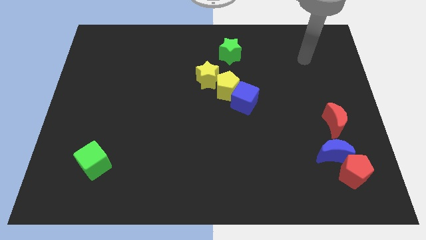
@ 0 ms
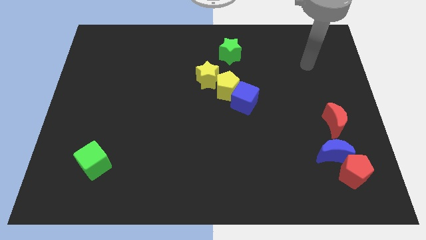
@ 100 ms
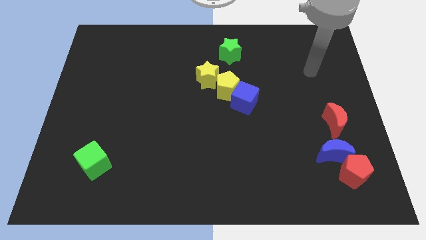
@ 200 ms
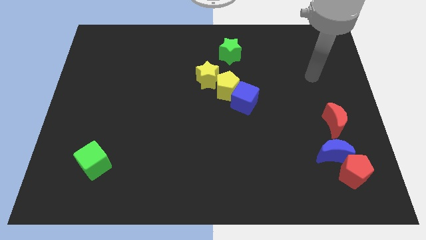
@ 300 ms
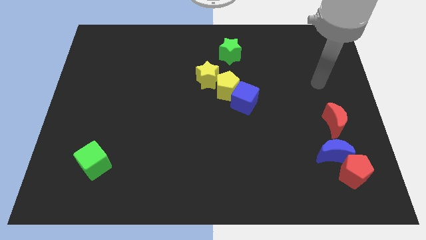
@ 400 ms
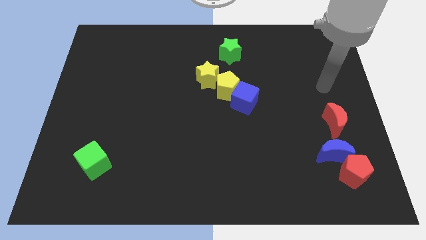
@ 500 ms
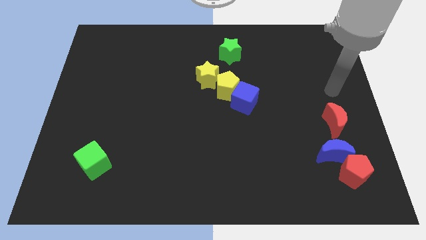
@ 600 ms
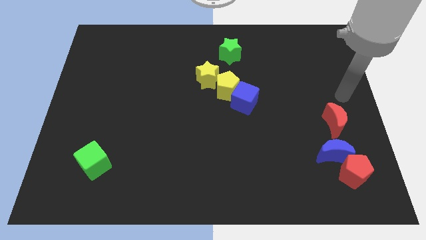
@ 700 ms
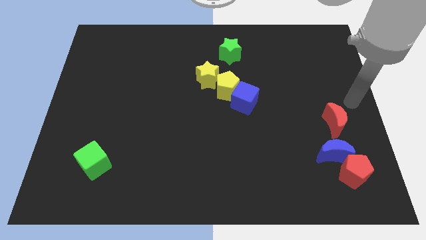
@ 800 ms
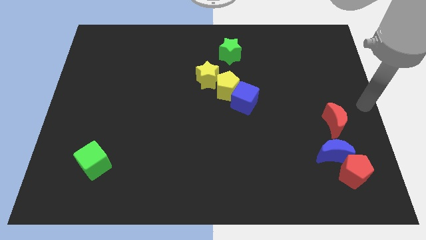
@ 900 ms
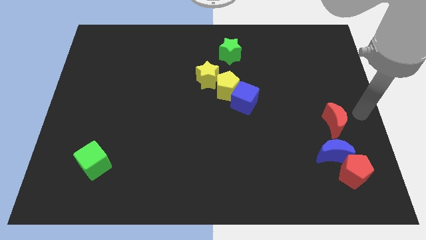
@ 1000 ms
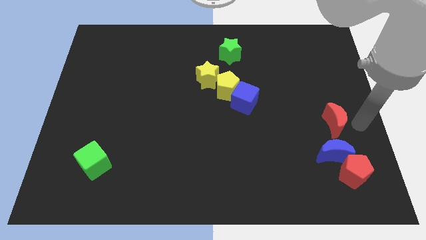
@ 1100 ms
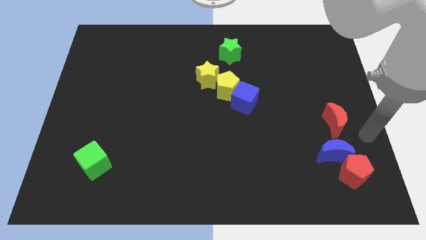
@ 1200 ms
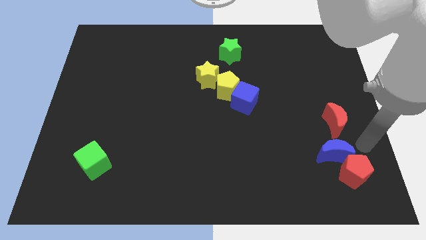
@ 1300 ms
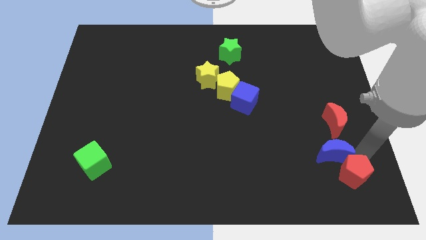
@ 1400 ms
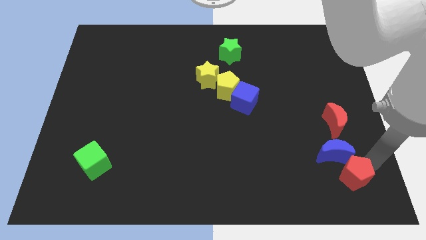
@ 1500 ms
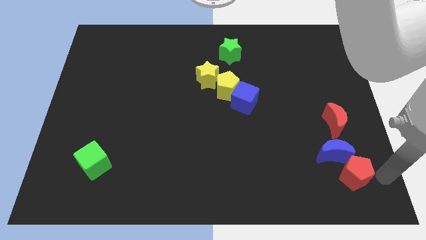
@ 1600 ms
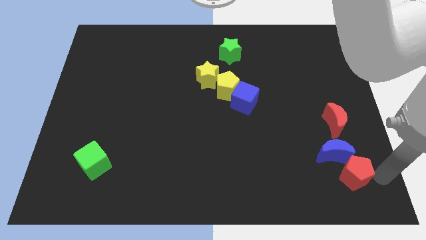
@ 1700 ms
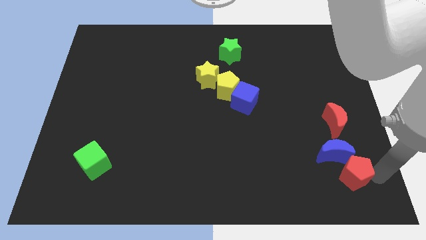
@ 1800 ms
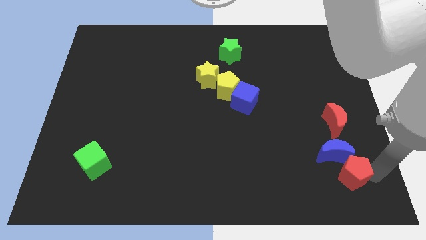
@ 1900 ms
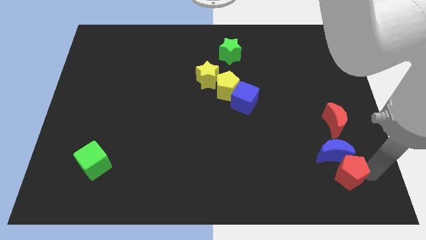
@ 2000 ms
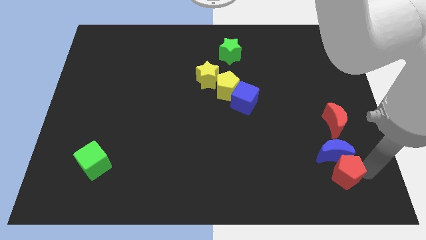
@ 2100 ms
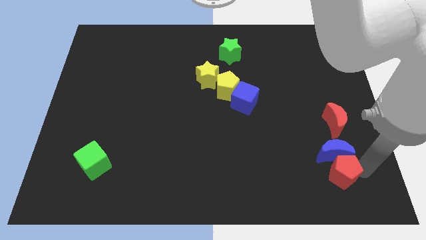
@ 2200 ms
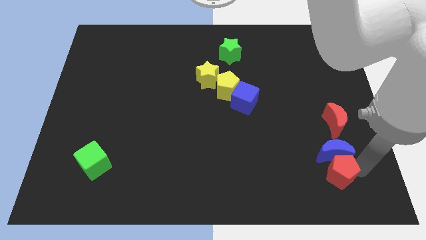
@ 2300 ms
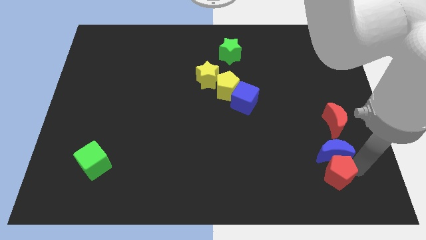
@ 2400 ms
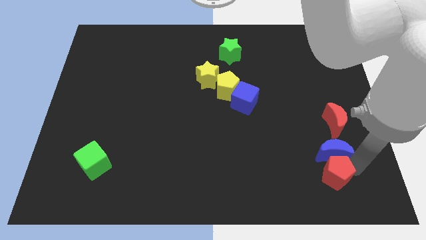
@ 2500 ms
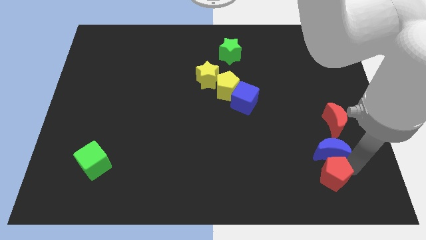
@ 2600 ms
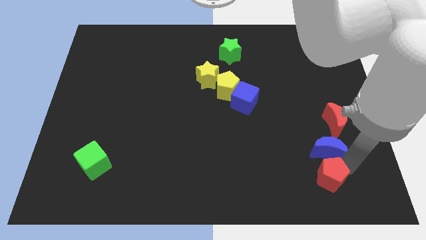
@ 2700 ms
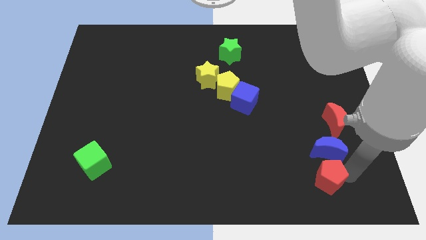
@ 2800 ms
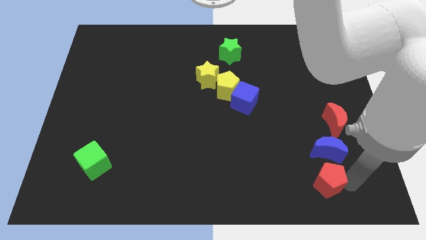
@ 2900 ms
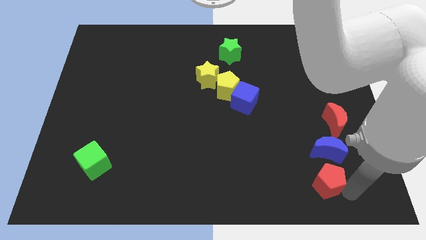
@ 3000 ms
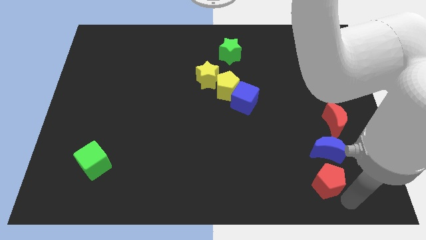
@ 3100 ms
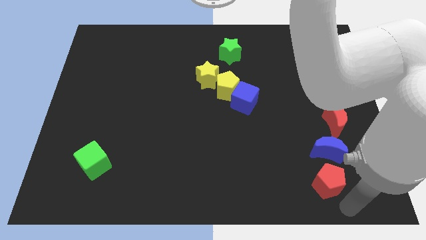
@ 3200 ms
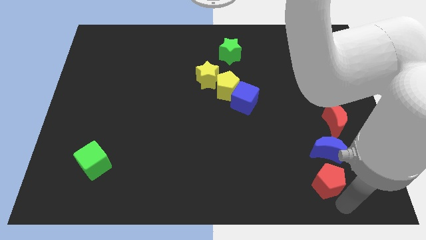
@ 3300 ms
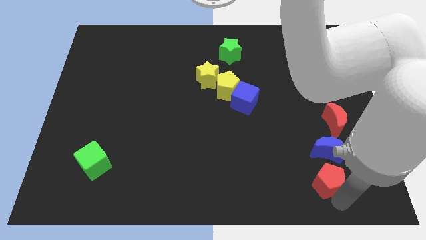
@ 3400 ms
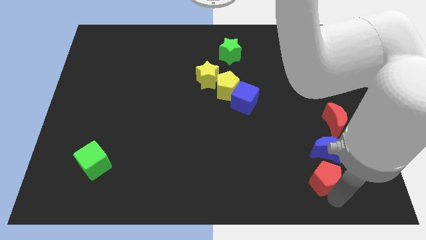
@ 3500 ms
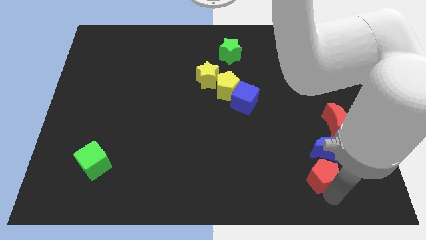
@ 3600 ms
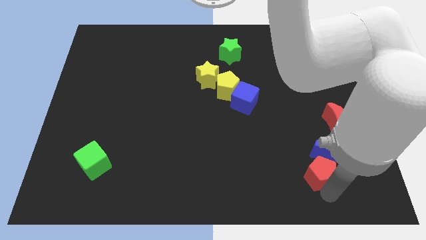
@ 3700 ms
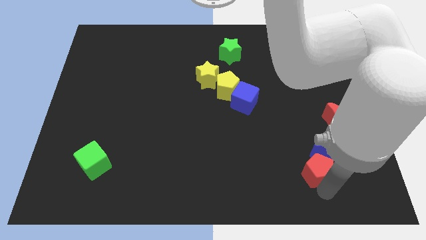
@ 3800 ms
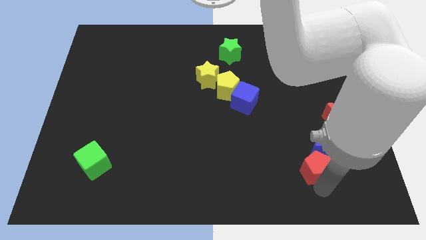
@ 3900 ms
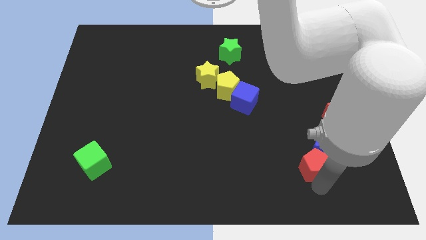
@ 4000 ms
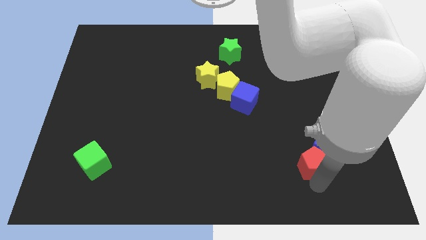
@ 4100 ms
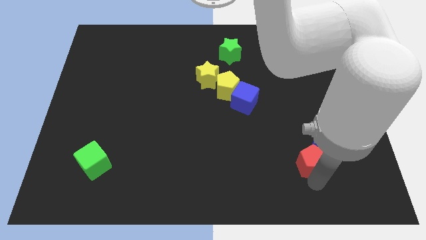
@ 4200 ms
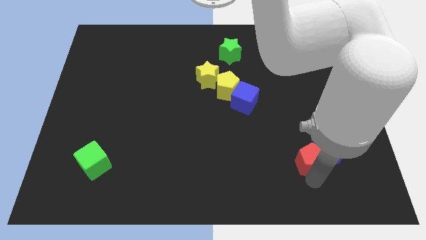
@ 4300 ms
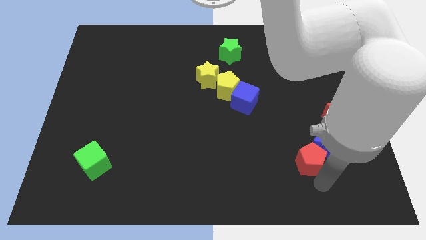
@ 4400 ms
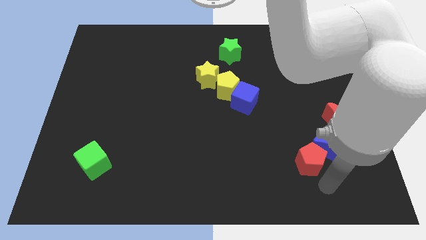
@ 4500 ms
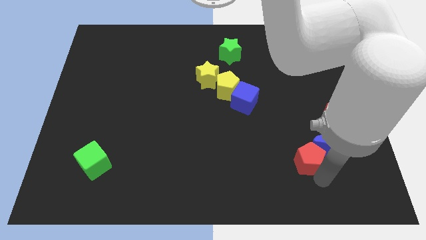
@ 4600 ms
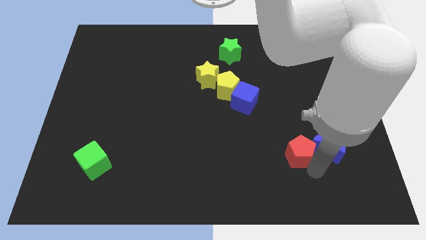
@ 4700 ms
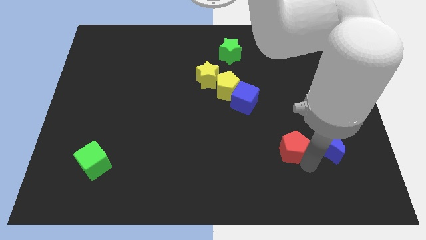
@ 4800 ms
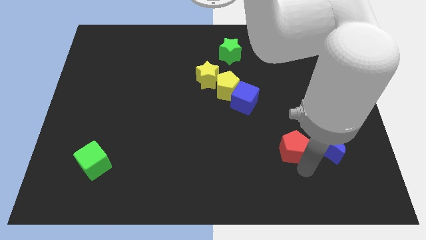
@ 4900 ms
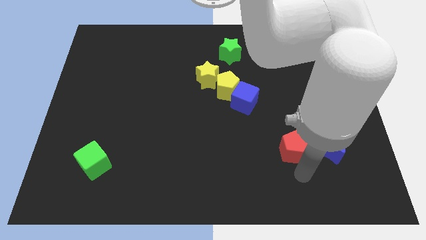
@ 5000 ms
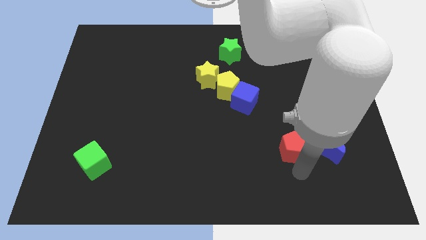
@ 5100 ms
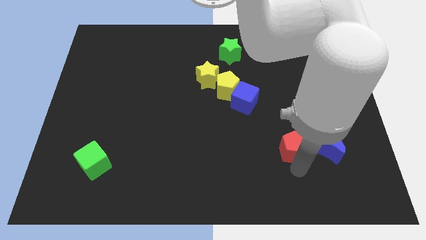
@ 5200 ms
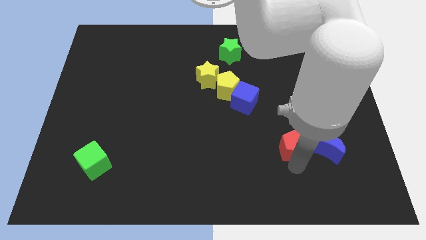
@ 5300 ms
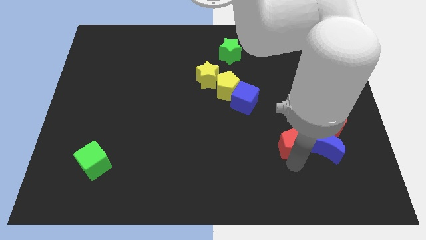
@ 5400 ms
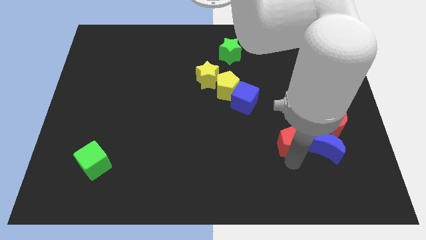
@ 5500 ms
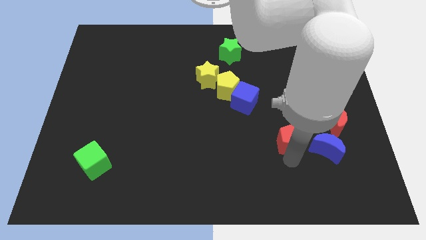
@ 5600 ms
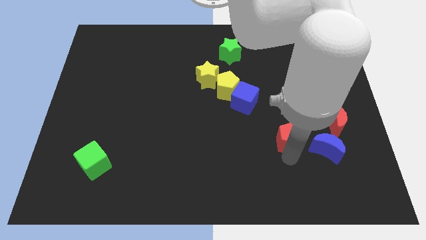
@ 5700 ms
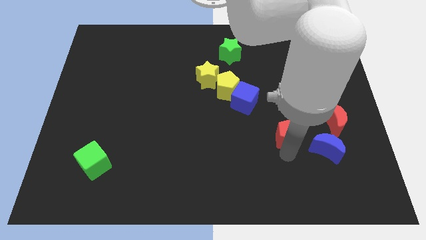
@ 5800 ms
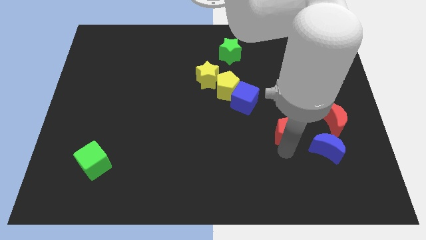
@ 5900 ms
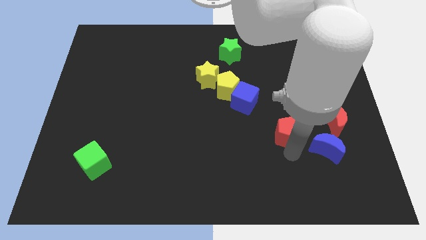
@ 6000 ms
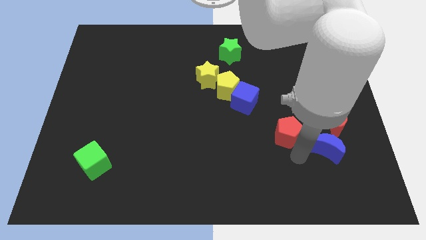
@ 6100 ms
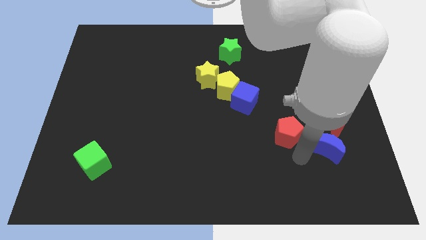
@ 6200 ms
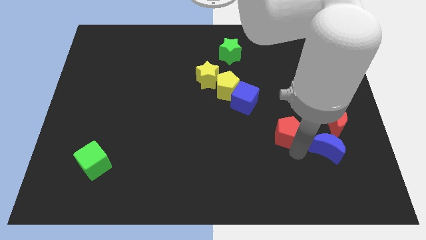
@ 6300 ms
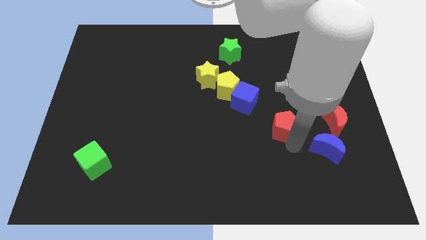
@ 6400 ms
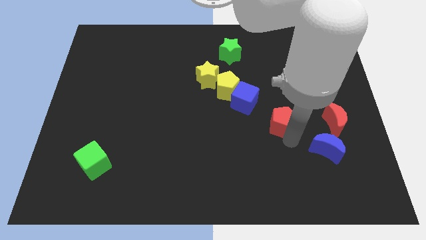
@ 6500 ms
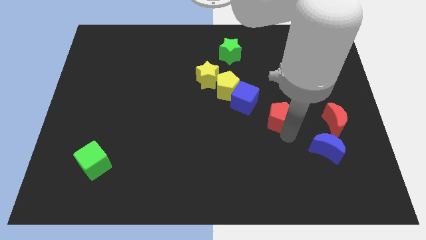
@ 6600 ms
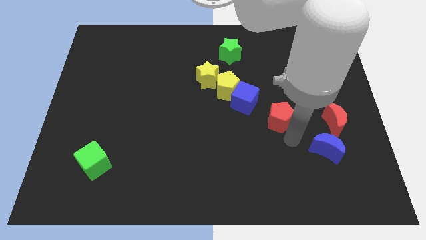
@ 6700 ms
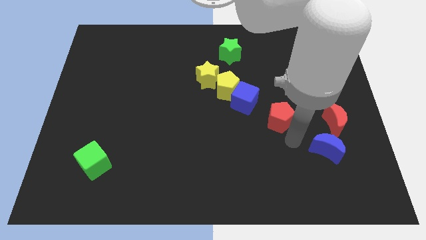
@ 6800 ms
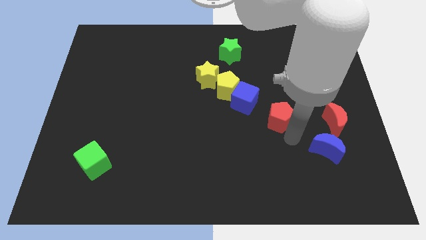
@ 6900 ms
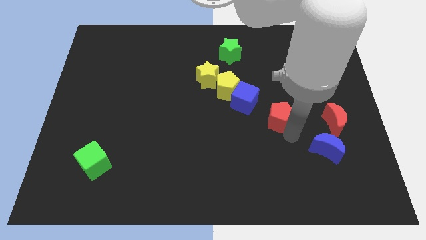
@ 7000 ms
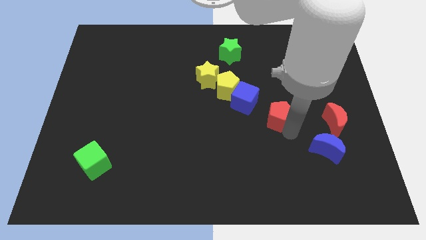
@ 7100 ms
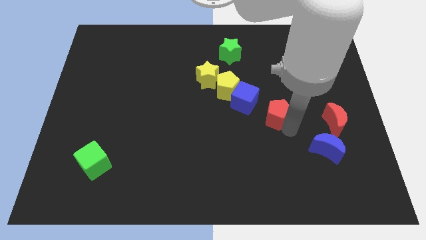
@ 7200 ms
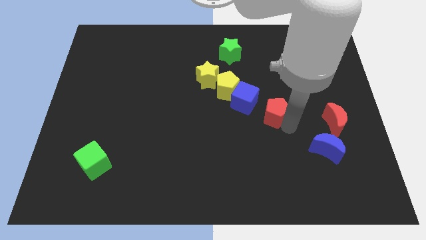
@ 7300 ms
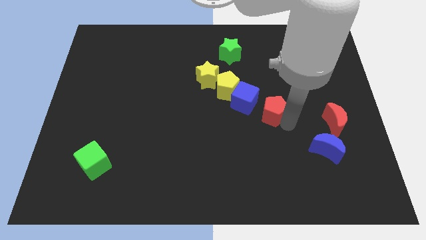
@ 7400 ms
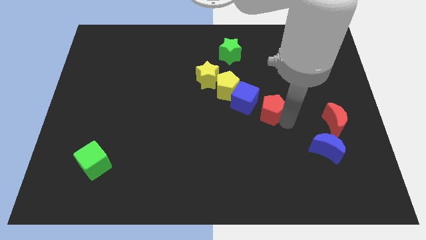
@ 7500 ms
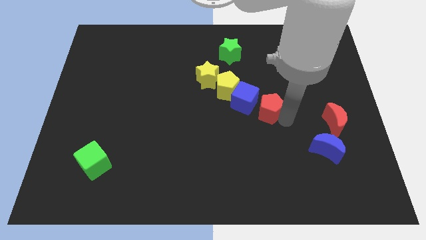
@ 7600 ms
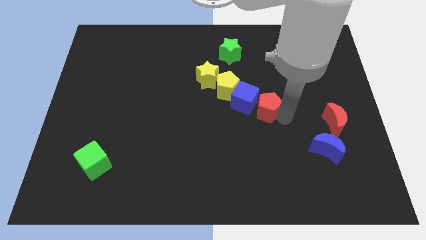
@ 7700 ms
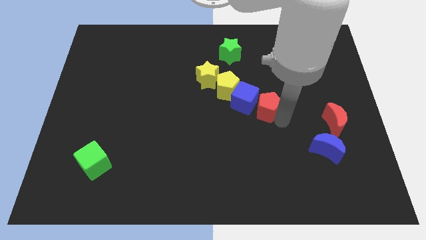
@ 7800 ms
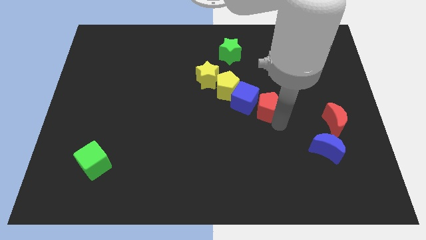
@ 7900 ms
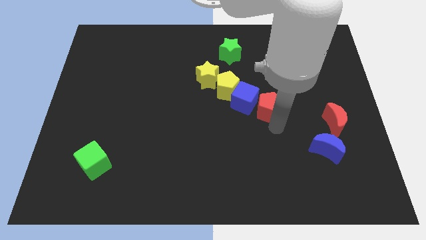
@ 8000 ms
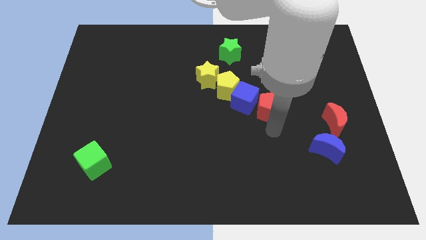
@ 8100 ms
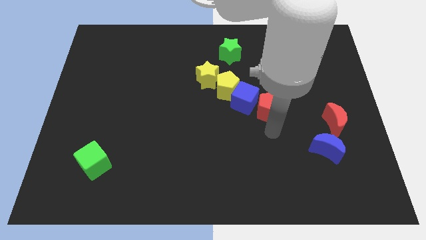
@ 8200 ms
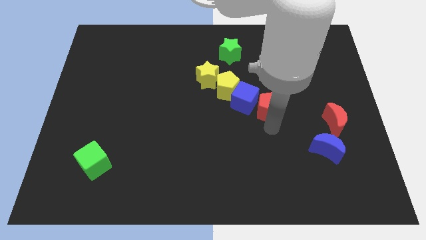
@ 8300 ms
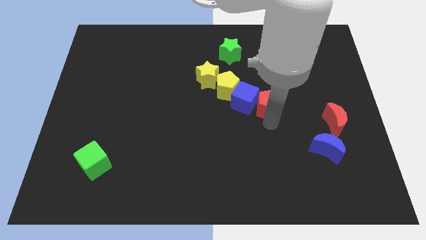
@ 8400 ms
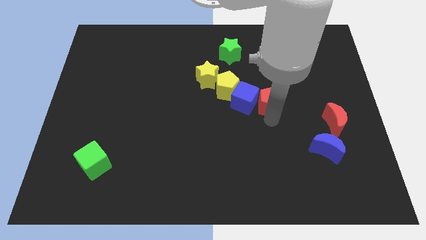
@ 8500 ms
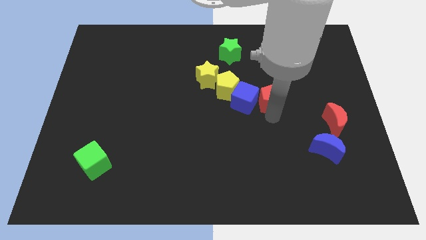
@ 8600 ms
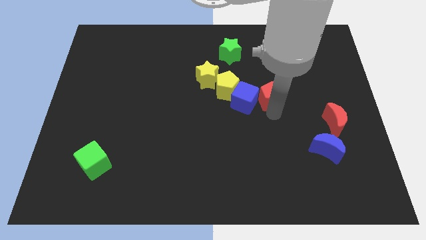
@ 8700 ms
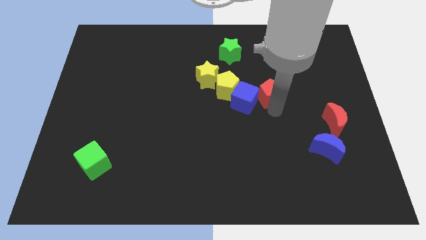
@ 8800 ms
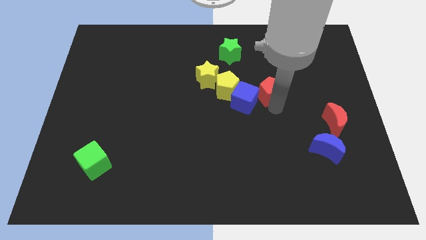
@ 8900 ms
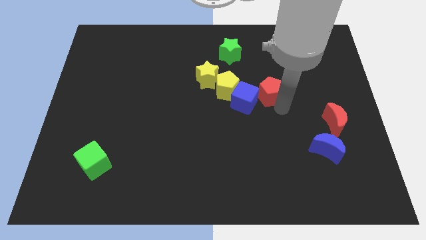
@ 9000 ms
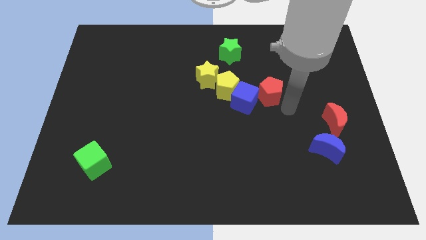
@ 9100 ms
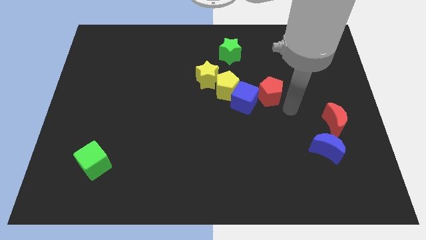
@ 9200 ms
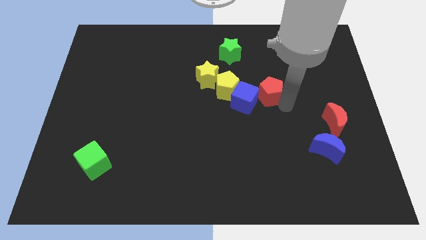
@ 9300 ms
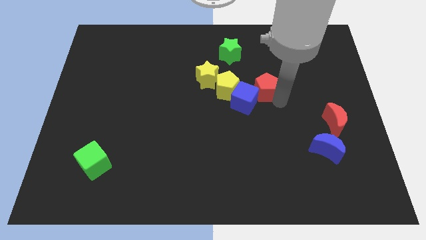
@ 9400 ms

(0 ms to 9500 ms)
move the red pentagon to the right of the yellow star
